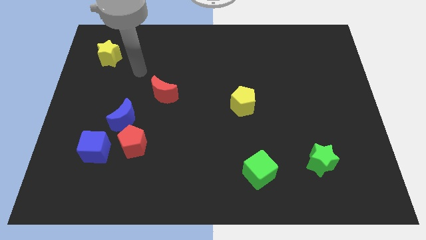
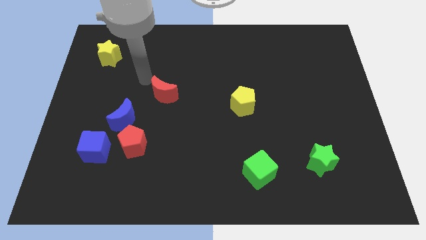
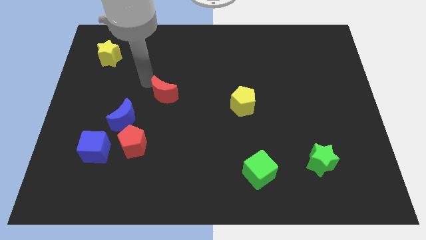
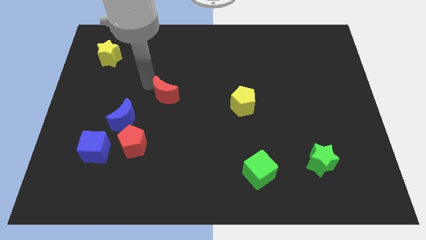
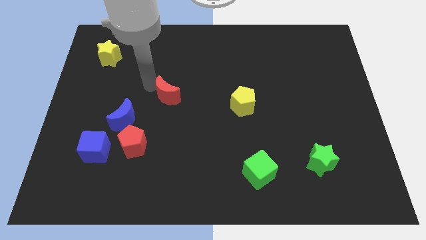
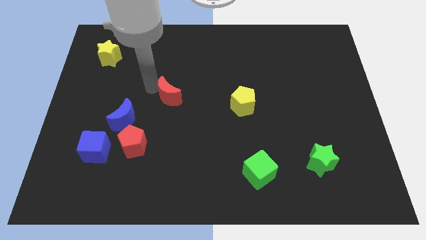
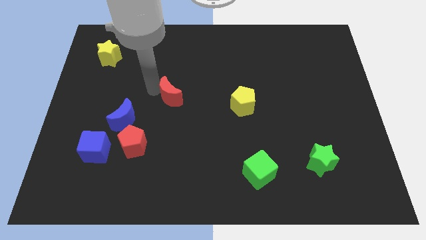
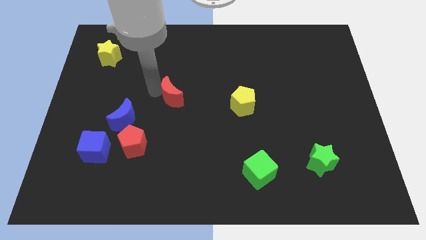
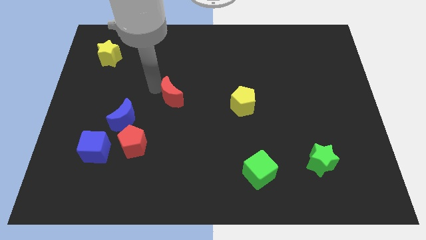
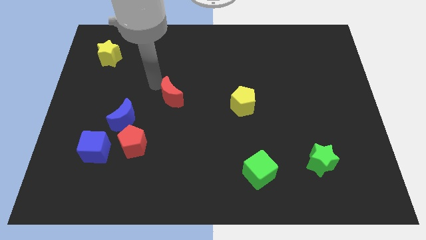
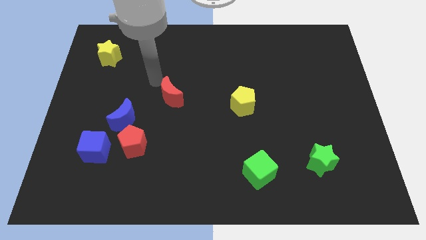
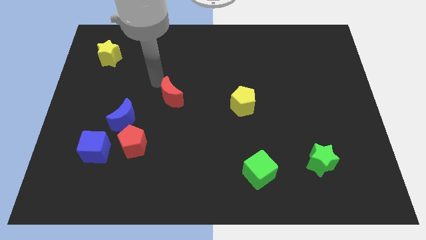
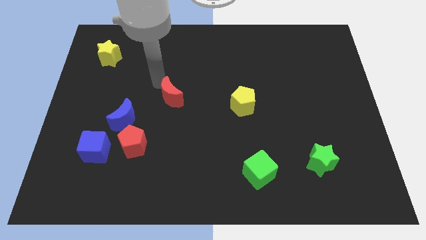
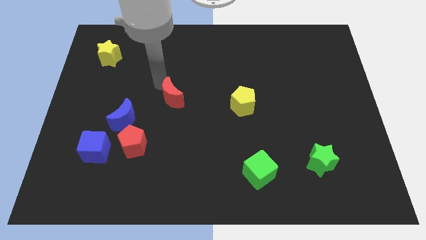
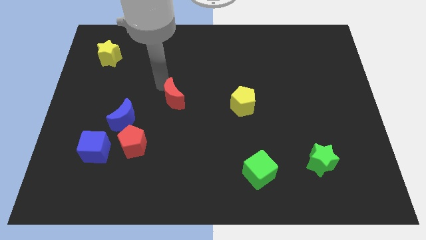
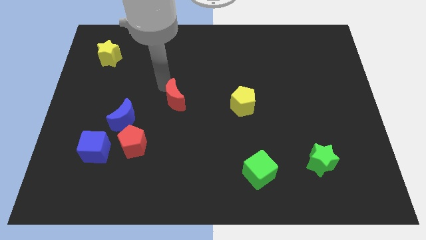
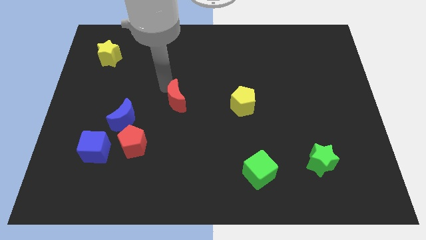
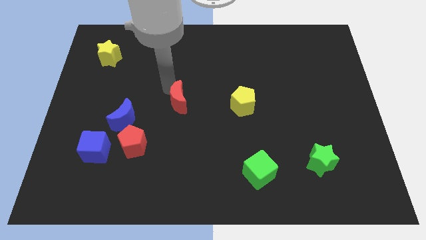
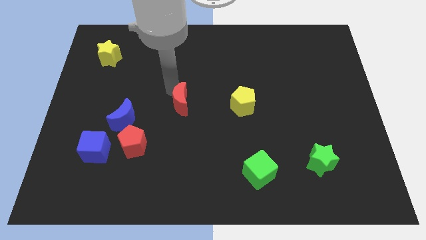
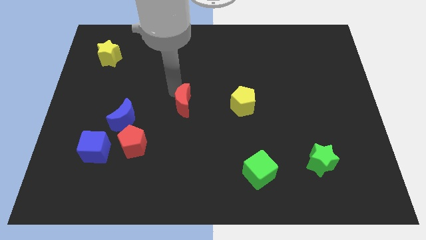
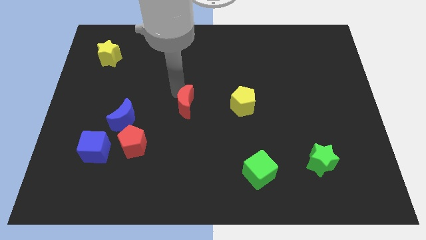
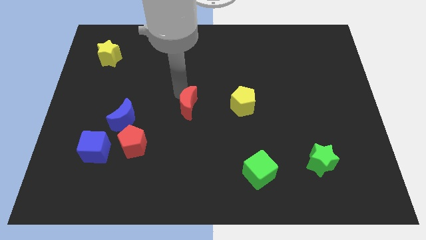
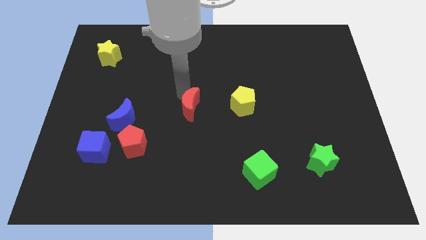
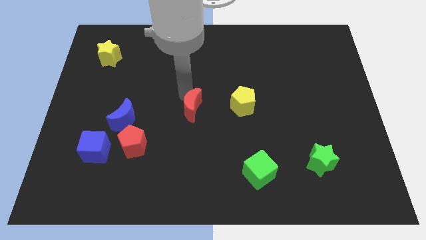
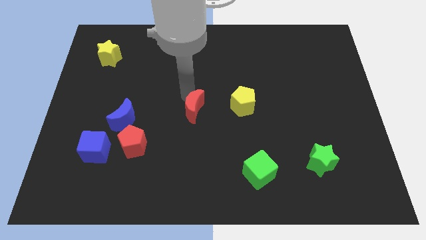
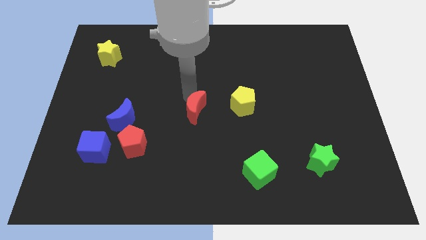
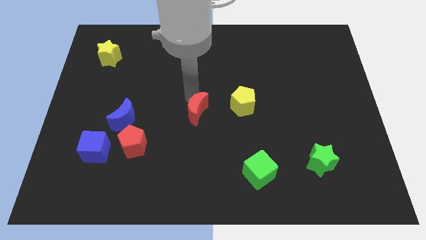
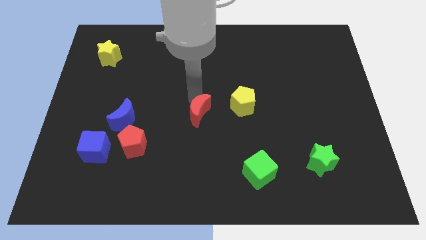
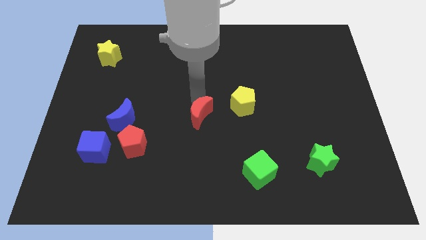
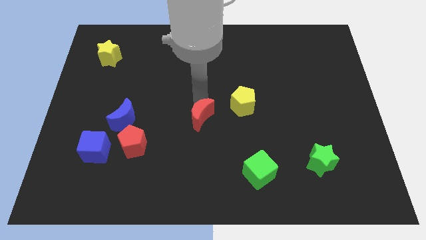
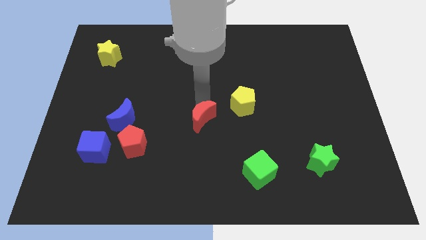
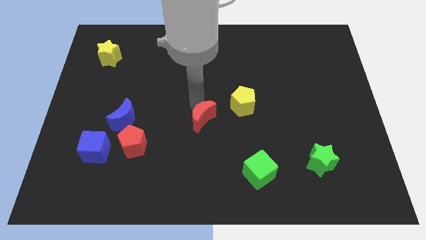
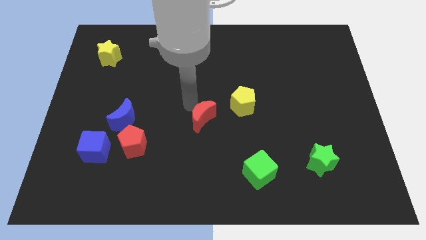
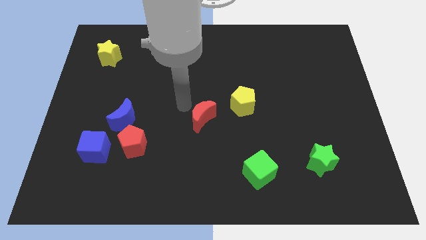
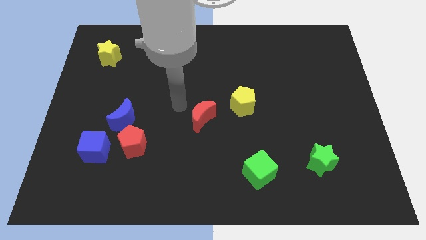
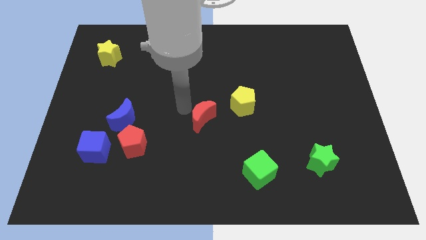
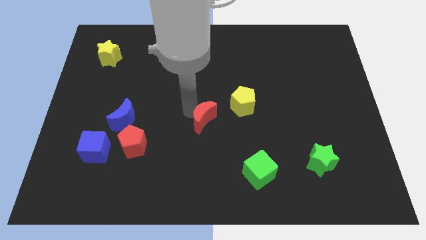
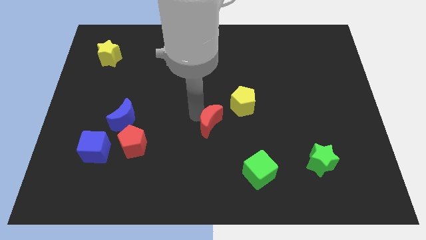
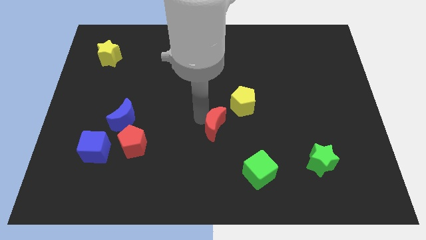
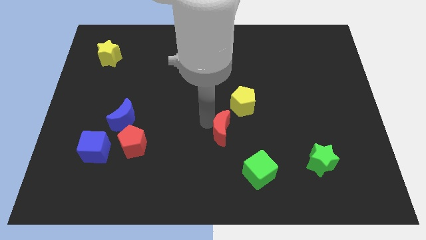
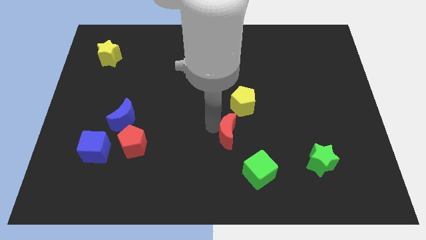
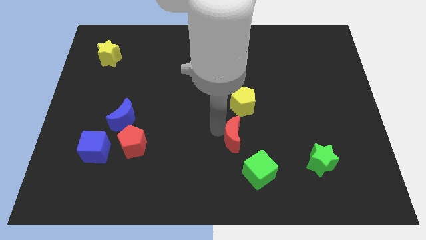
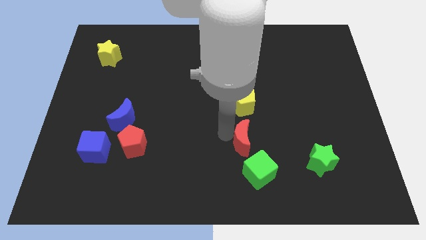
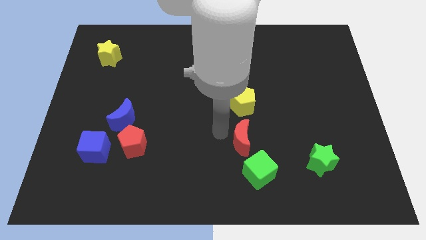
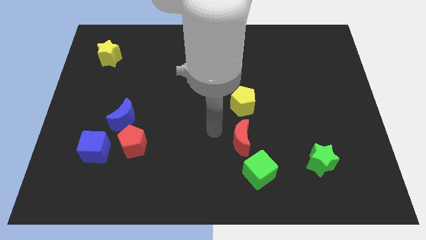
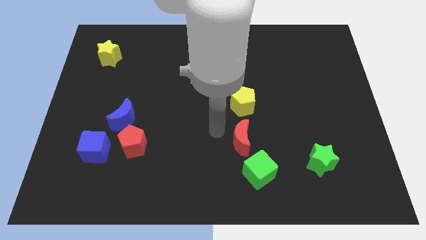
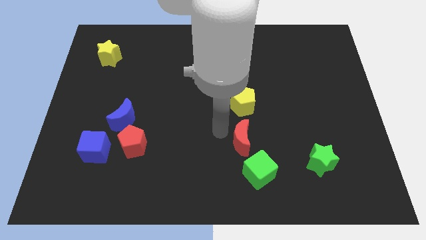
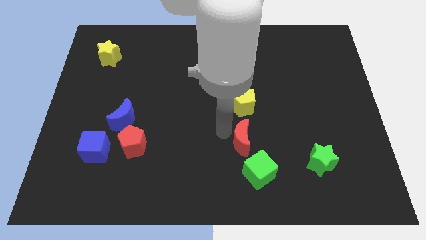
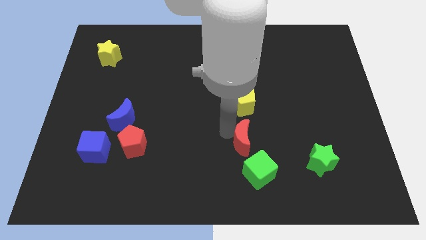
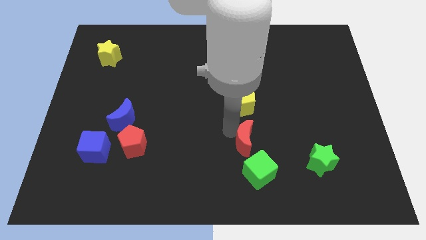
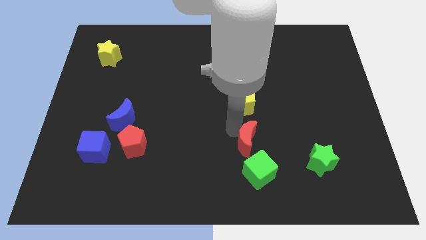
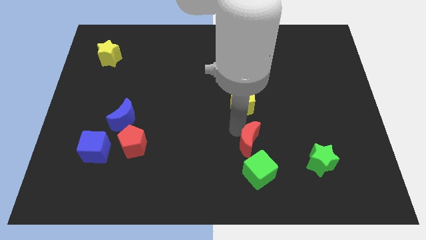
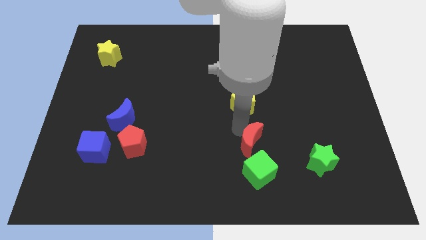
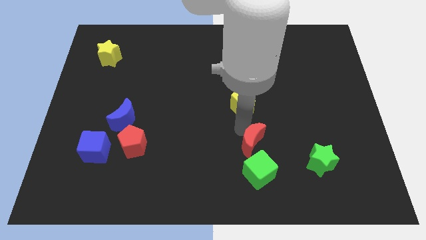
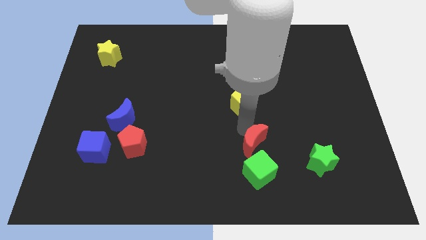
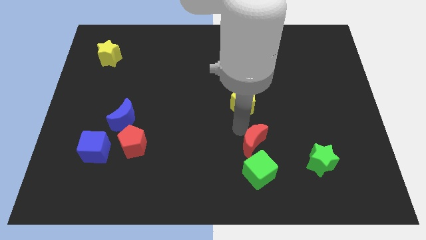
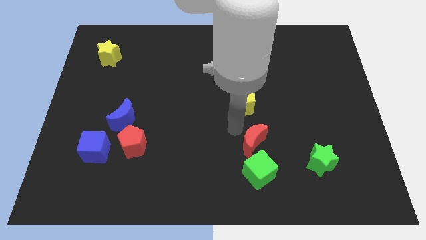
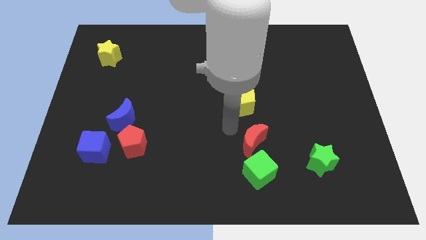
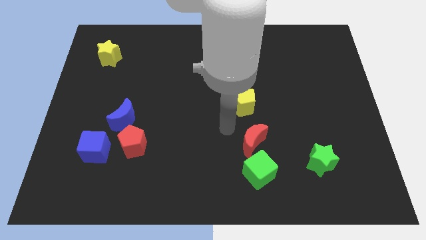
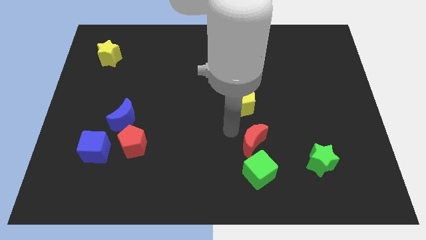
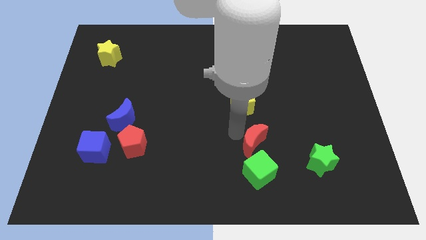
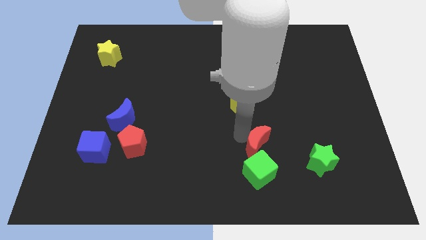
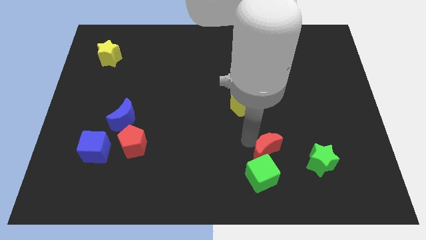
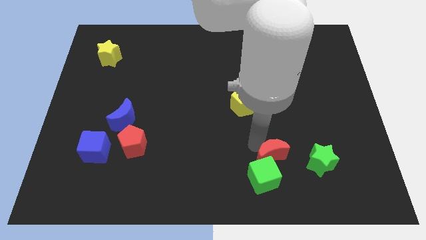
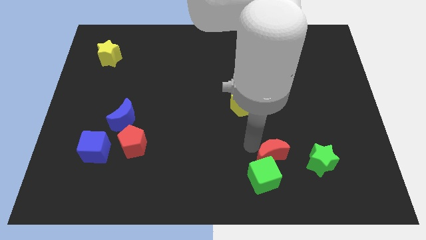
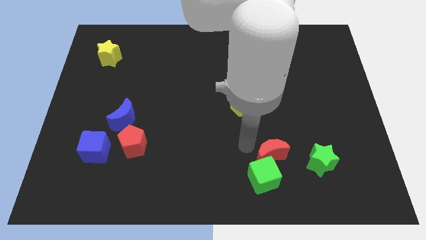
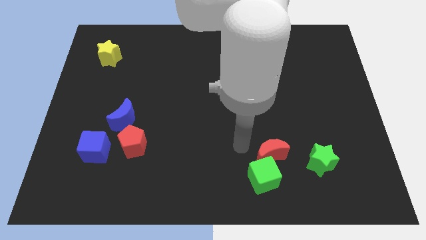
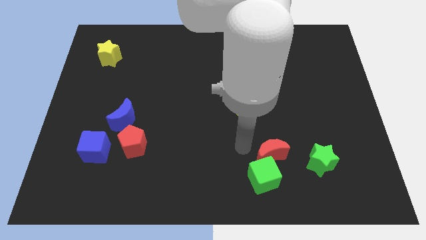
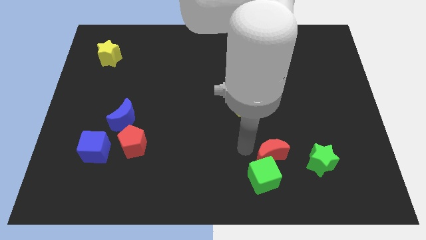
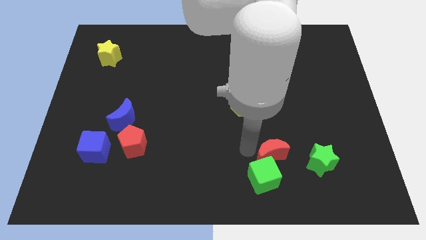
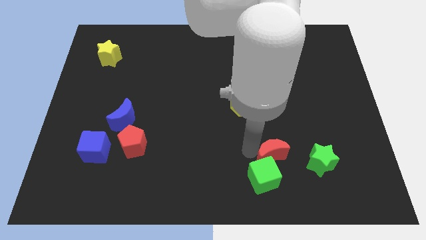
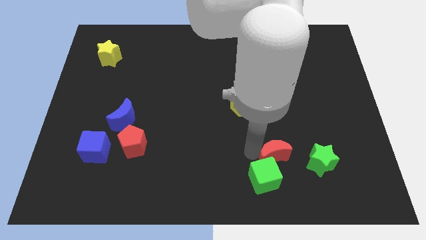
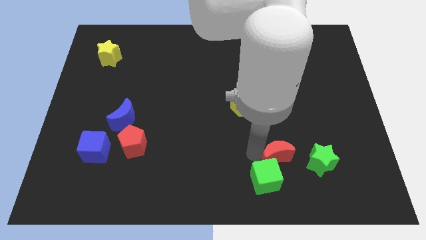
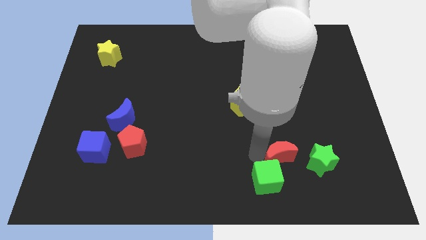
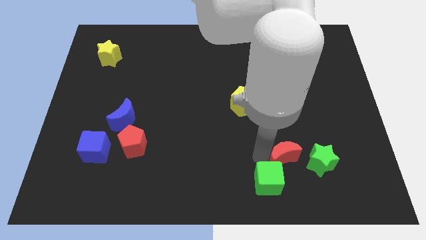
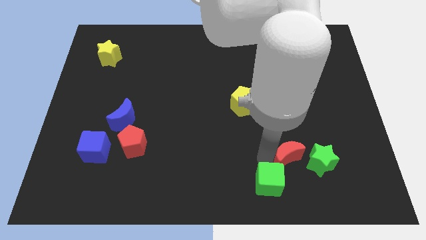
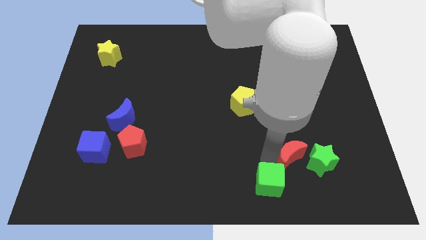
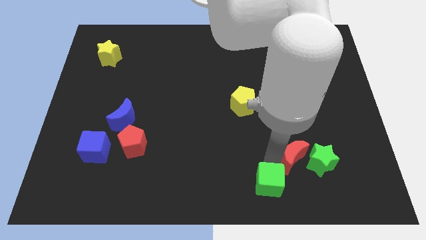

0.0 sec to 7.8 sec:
put the red moon to the green star
